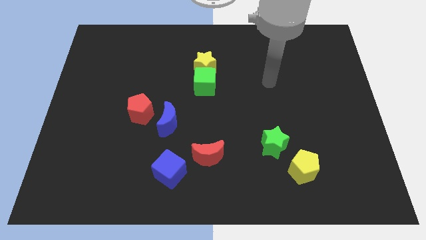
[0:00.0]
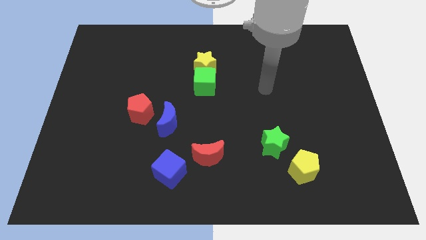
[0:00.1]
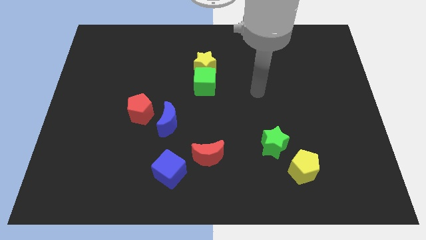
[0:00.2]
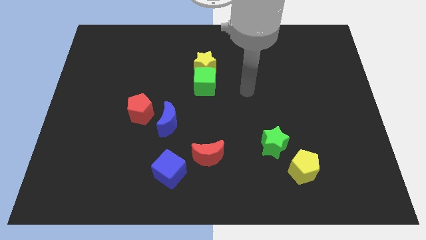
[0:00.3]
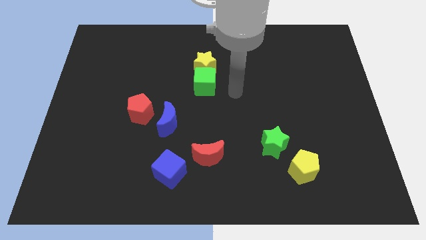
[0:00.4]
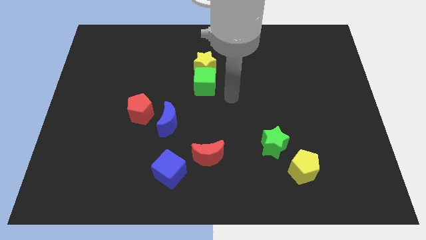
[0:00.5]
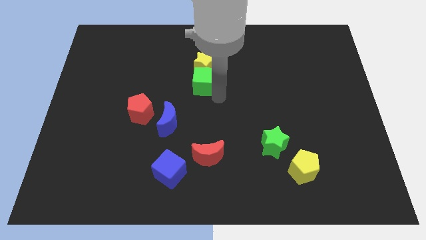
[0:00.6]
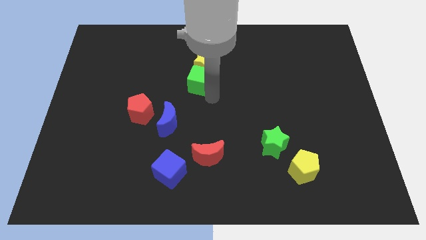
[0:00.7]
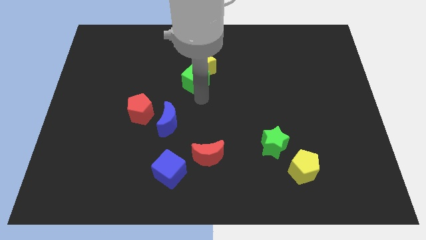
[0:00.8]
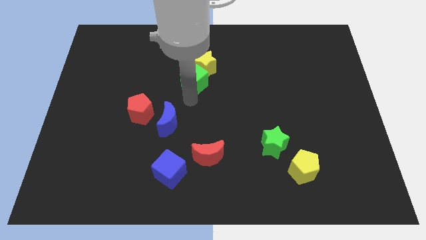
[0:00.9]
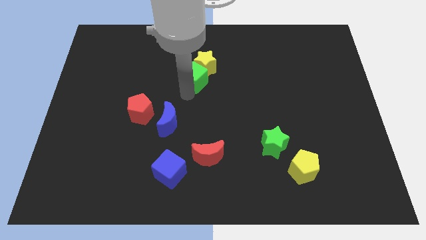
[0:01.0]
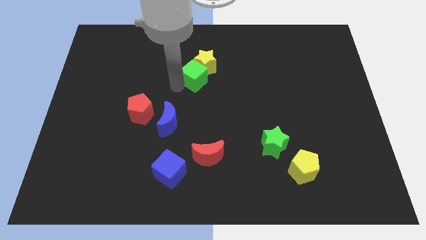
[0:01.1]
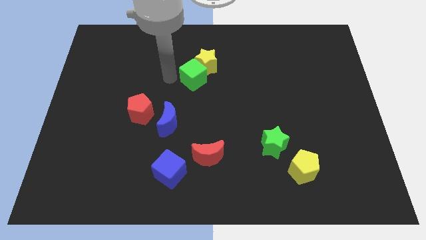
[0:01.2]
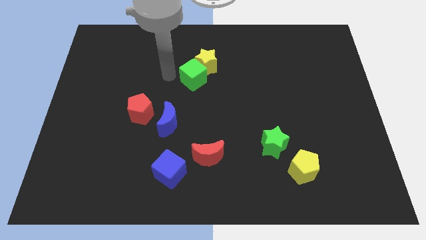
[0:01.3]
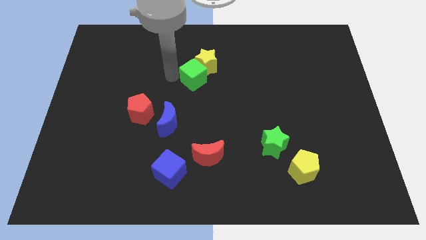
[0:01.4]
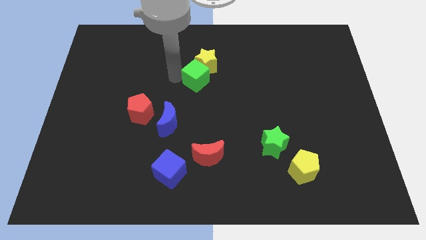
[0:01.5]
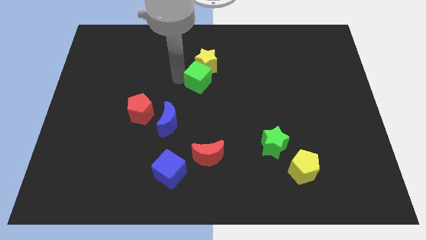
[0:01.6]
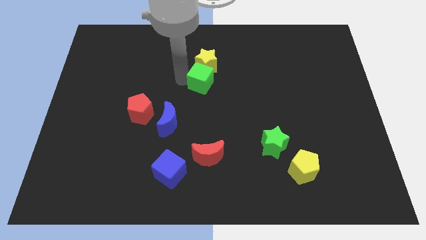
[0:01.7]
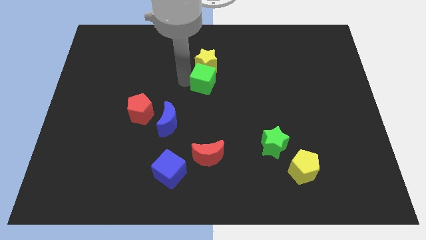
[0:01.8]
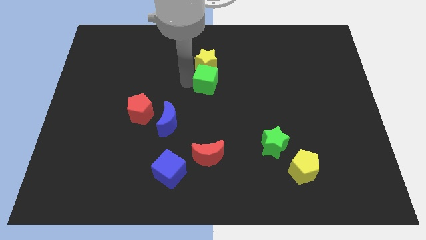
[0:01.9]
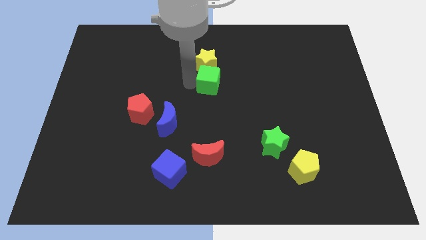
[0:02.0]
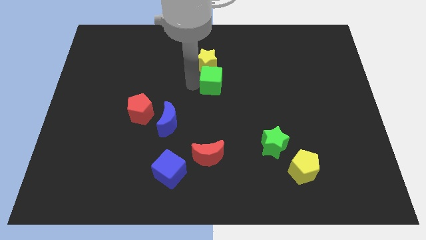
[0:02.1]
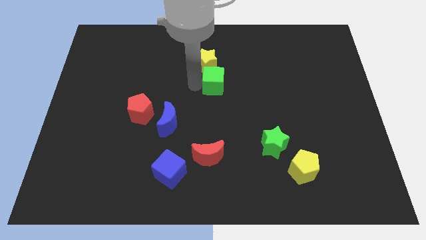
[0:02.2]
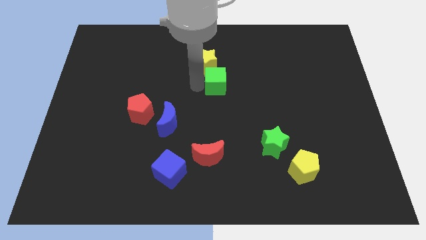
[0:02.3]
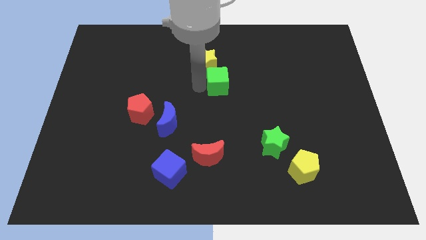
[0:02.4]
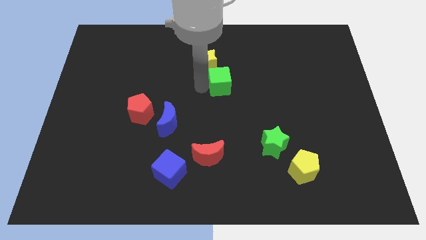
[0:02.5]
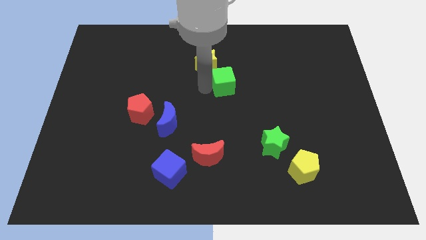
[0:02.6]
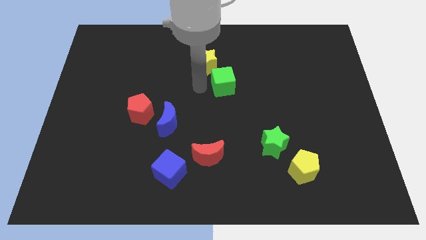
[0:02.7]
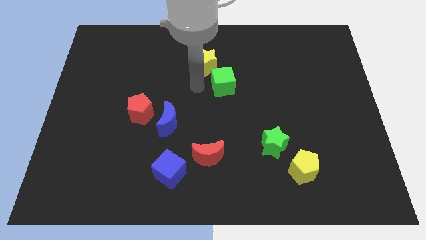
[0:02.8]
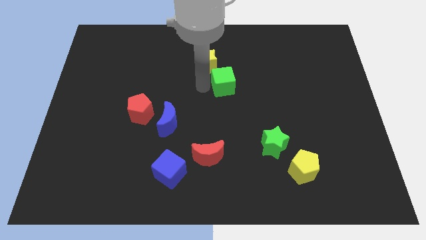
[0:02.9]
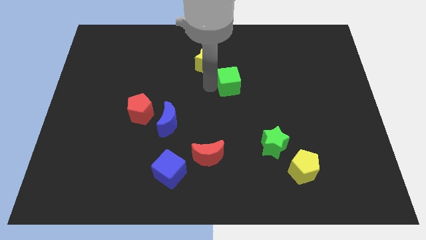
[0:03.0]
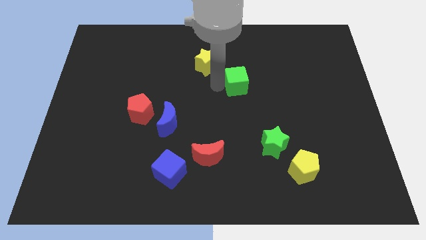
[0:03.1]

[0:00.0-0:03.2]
push the green cube somewhat right

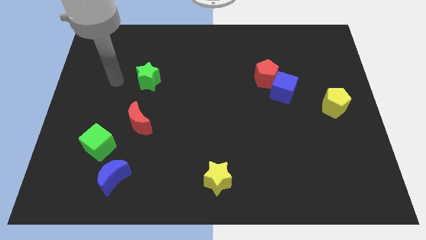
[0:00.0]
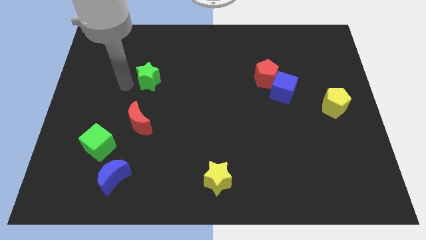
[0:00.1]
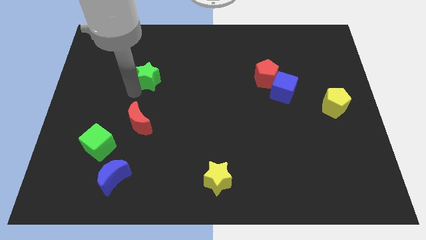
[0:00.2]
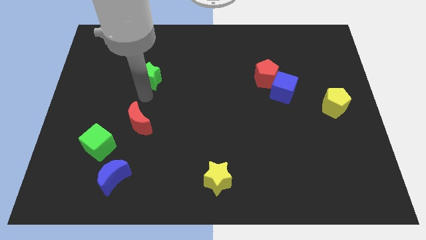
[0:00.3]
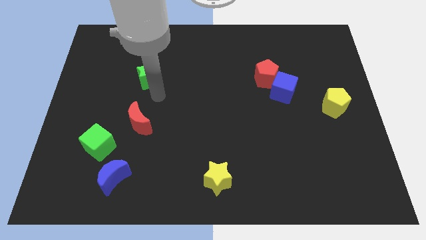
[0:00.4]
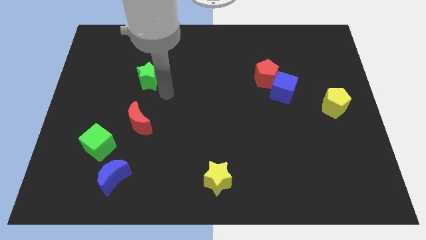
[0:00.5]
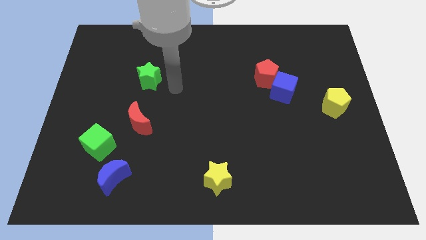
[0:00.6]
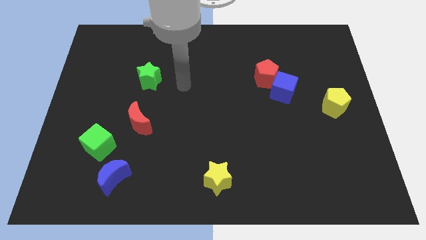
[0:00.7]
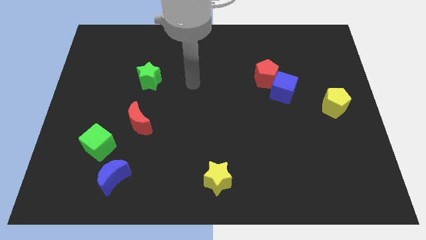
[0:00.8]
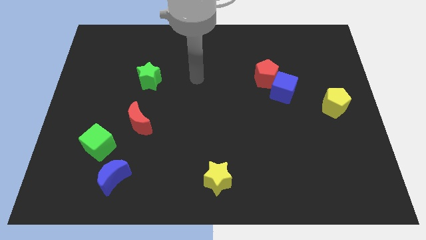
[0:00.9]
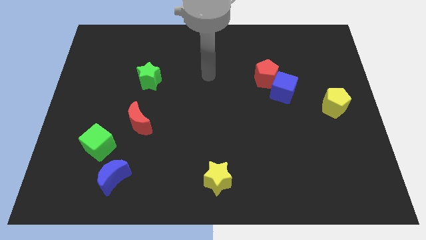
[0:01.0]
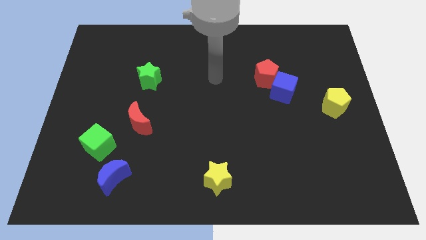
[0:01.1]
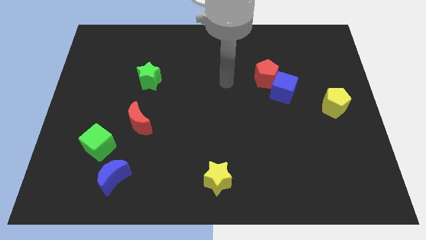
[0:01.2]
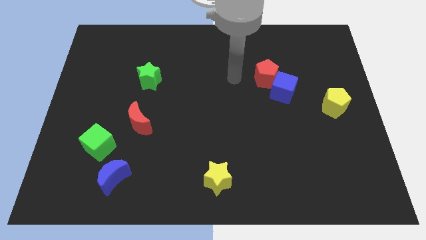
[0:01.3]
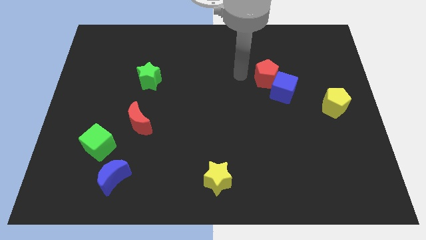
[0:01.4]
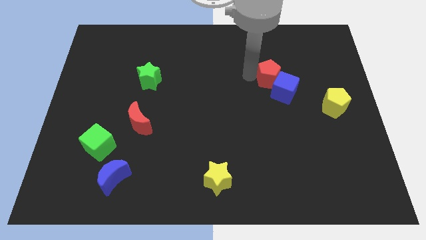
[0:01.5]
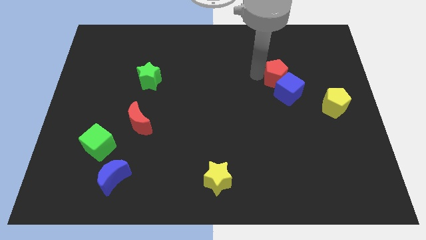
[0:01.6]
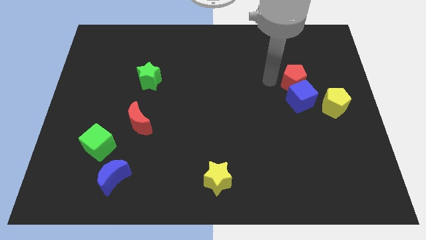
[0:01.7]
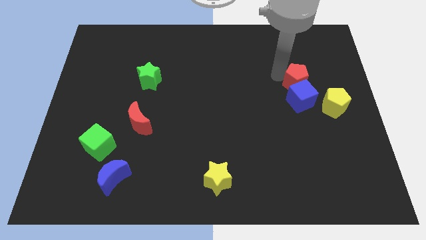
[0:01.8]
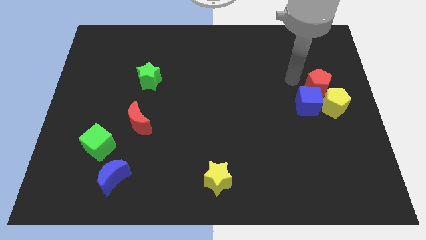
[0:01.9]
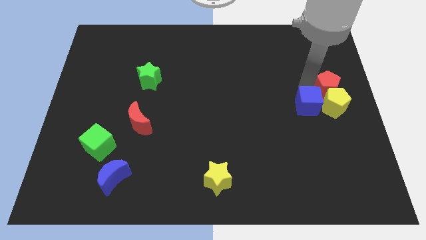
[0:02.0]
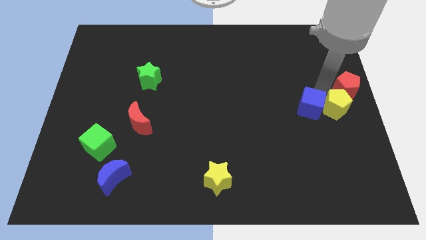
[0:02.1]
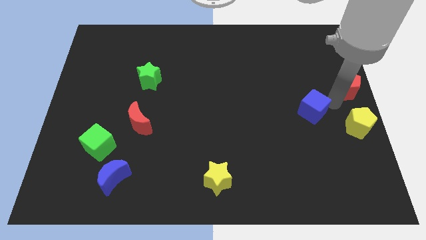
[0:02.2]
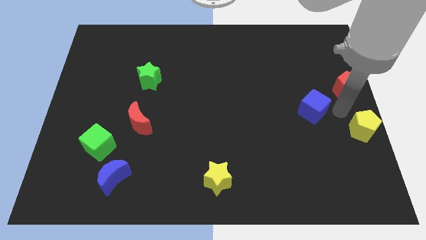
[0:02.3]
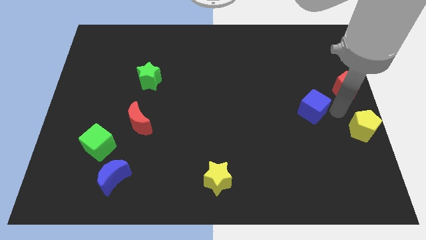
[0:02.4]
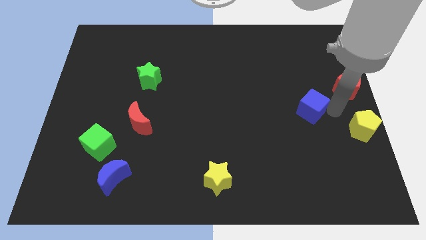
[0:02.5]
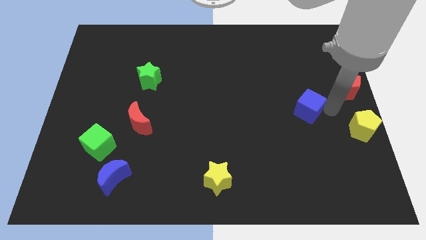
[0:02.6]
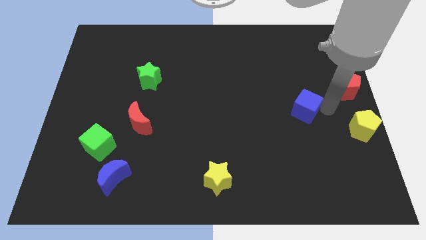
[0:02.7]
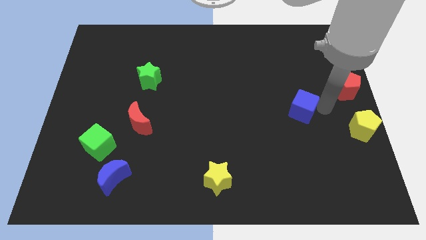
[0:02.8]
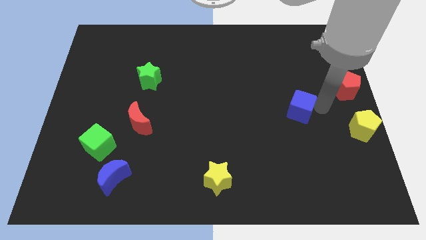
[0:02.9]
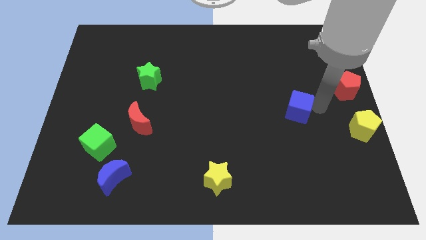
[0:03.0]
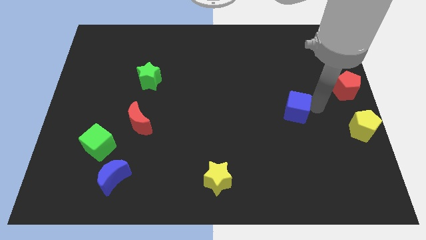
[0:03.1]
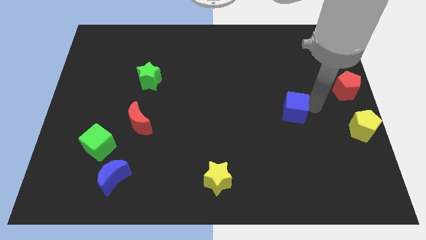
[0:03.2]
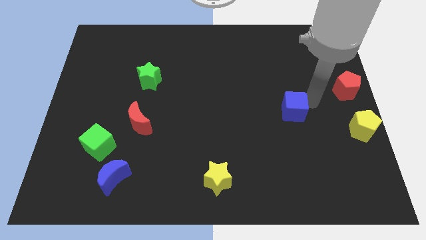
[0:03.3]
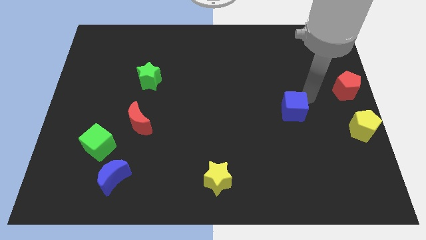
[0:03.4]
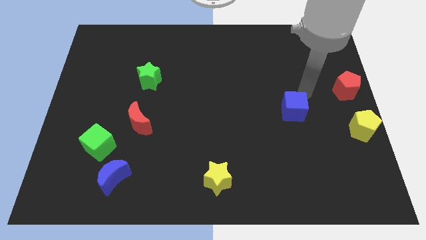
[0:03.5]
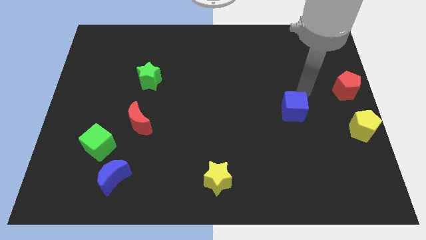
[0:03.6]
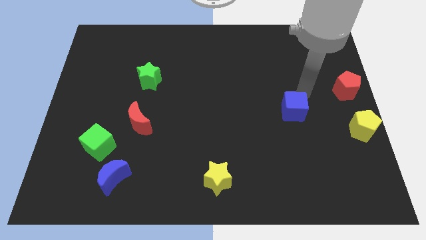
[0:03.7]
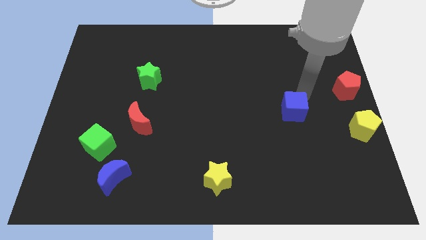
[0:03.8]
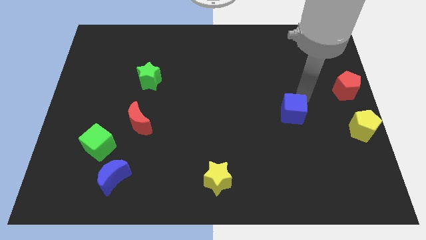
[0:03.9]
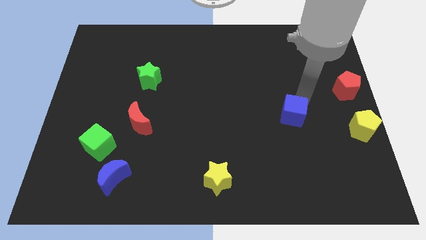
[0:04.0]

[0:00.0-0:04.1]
move the blue cube downwards slightly

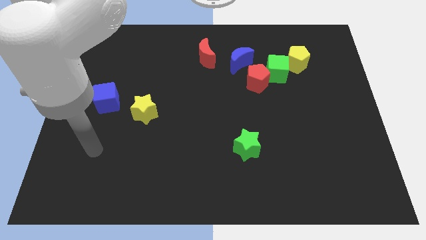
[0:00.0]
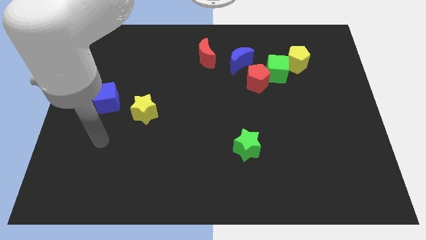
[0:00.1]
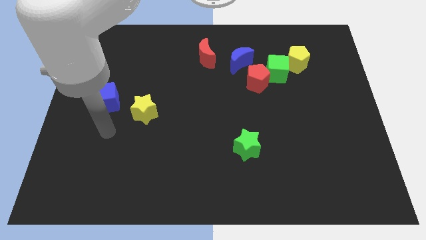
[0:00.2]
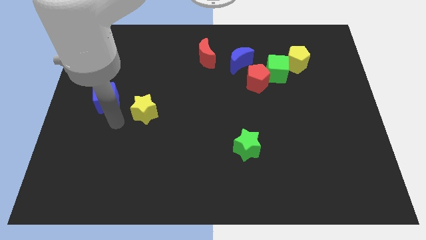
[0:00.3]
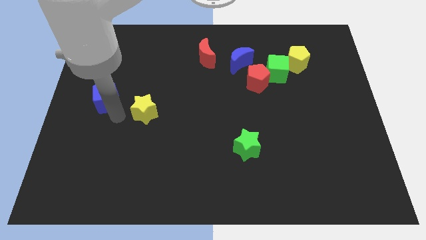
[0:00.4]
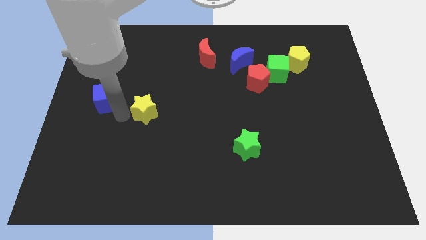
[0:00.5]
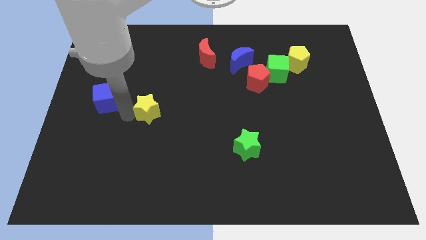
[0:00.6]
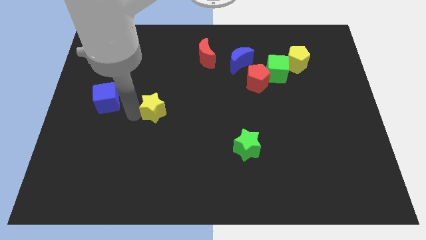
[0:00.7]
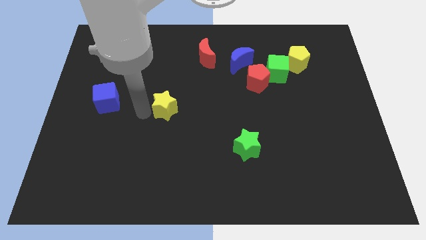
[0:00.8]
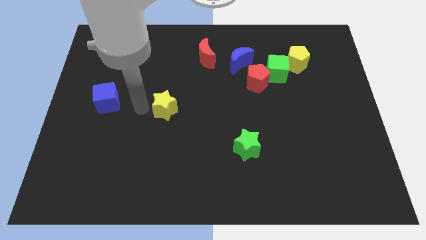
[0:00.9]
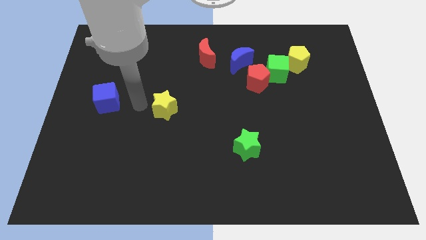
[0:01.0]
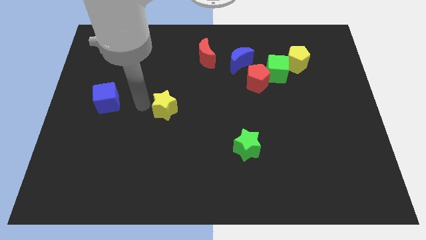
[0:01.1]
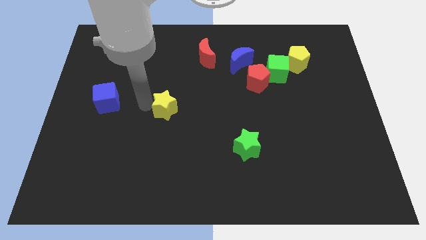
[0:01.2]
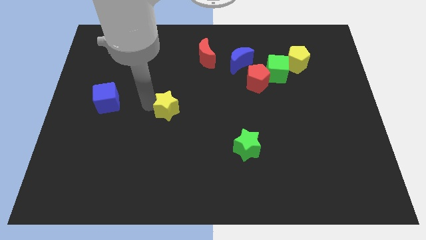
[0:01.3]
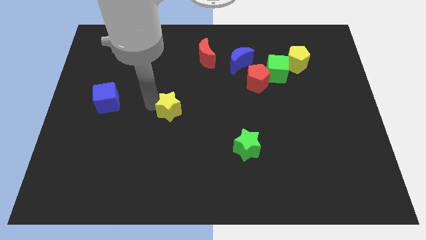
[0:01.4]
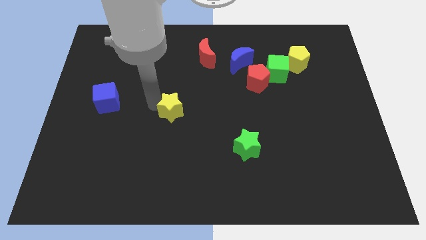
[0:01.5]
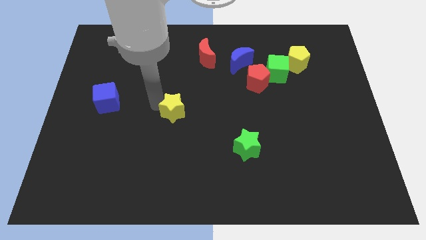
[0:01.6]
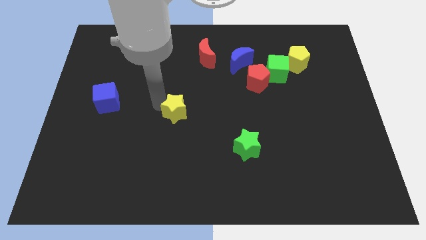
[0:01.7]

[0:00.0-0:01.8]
move the yellow star a bit to the right
